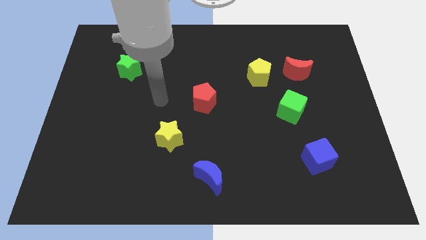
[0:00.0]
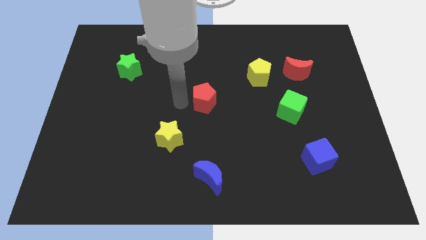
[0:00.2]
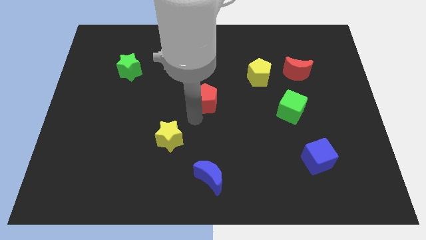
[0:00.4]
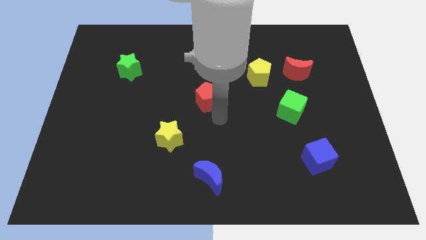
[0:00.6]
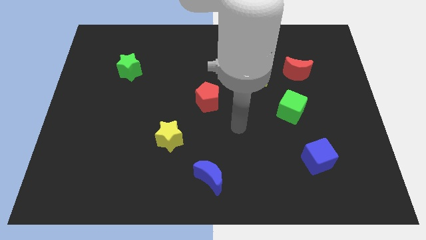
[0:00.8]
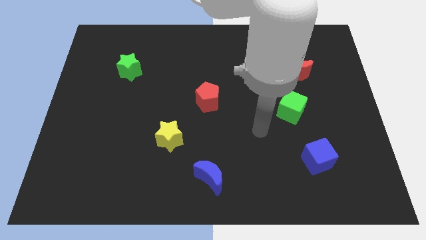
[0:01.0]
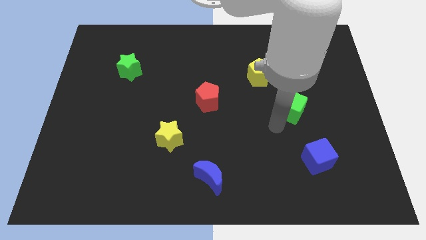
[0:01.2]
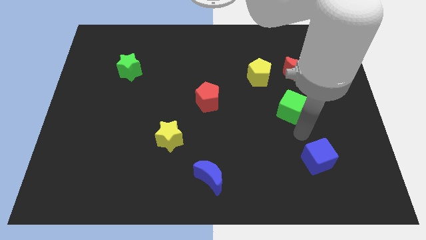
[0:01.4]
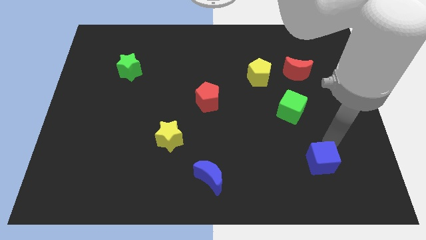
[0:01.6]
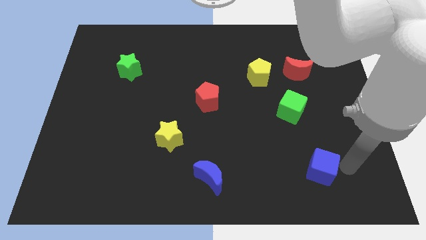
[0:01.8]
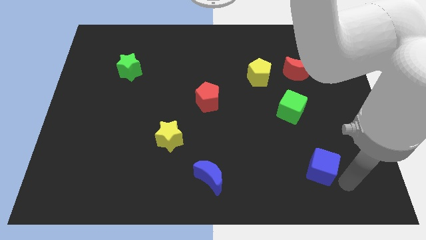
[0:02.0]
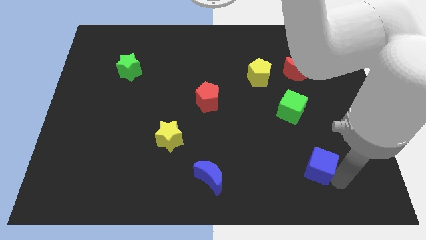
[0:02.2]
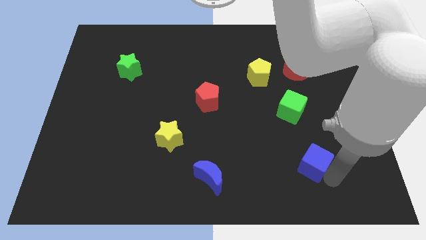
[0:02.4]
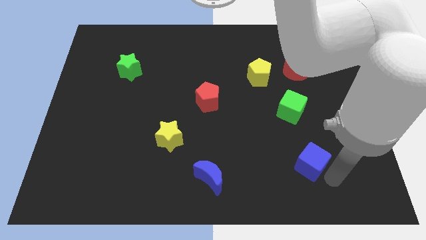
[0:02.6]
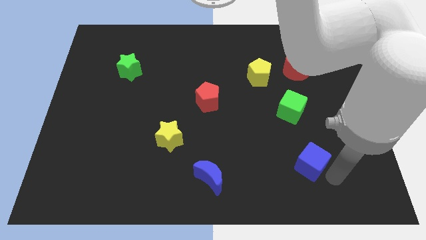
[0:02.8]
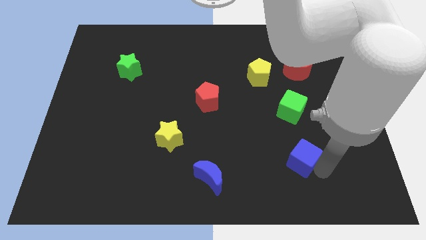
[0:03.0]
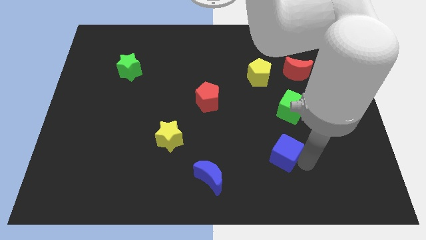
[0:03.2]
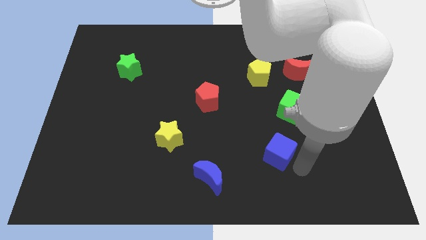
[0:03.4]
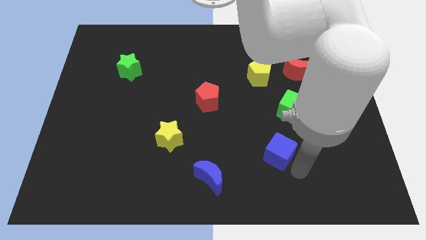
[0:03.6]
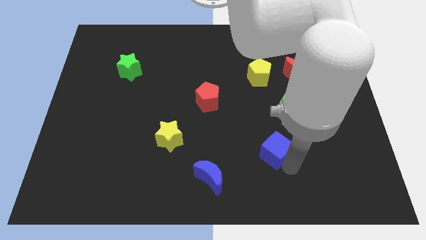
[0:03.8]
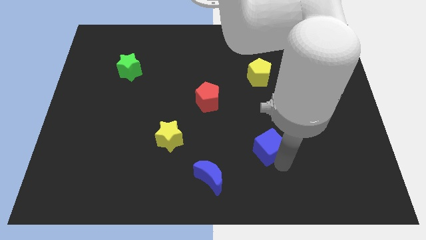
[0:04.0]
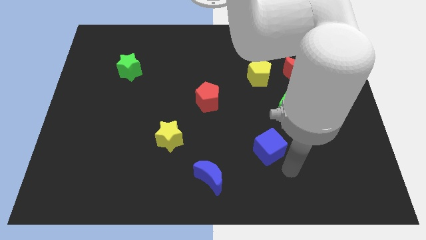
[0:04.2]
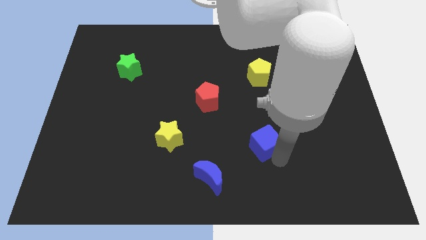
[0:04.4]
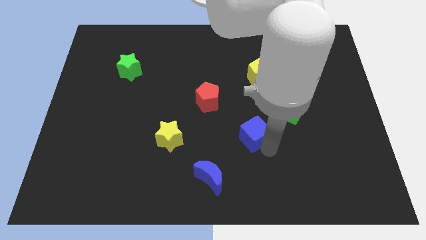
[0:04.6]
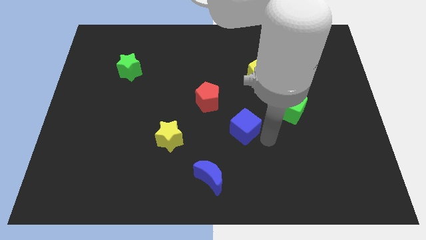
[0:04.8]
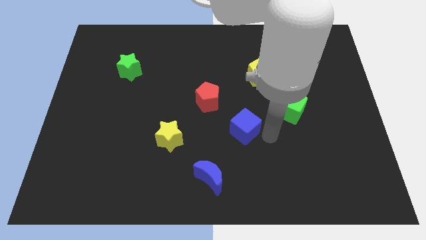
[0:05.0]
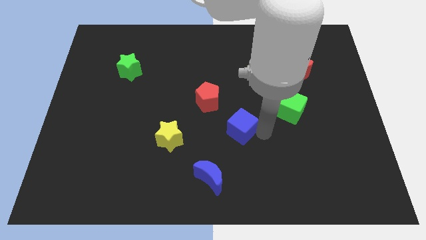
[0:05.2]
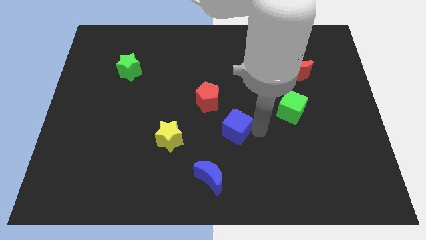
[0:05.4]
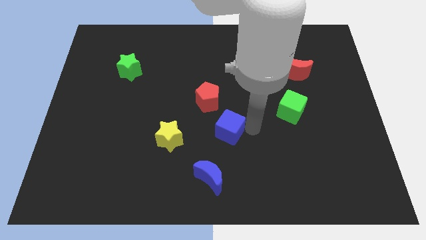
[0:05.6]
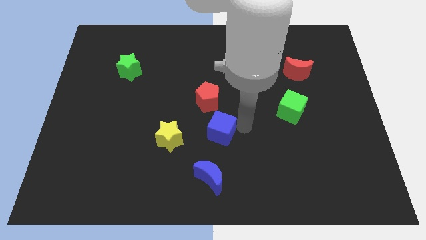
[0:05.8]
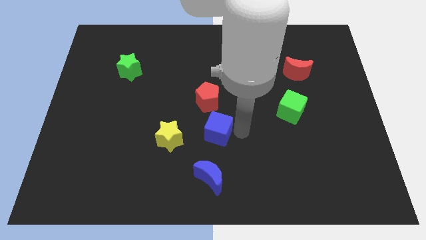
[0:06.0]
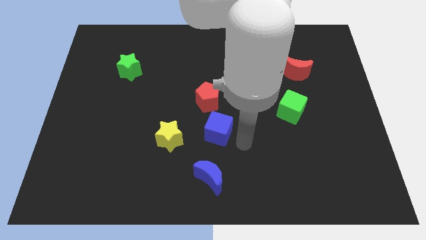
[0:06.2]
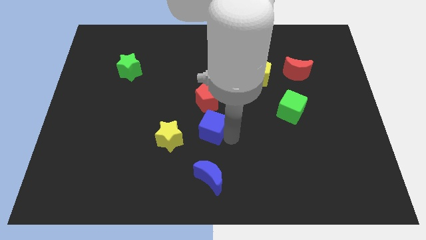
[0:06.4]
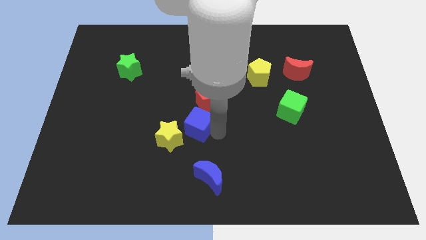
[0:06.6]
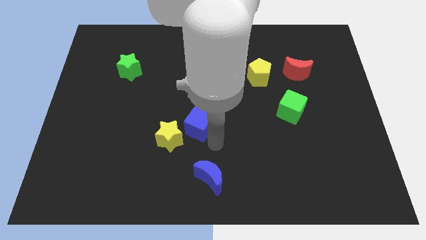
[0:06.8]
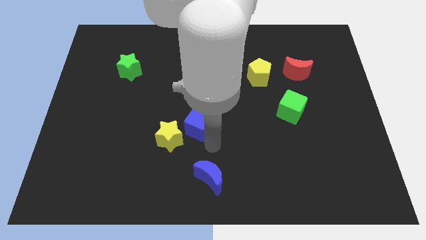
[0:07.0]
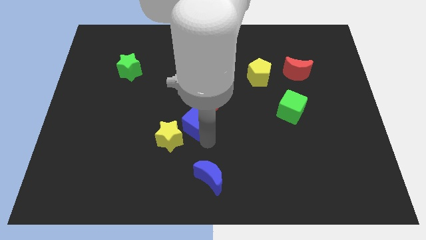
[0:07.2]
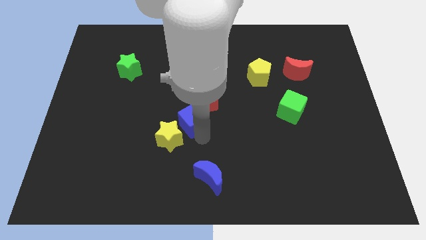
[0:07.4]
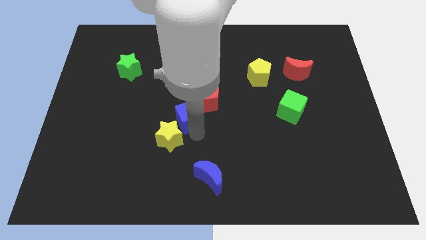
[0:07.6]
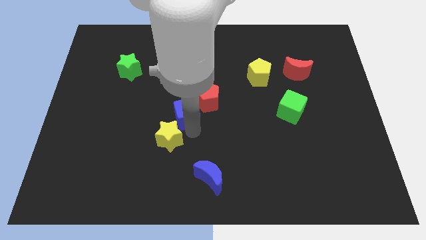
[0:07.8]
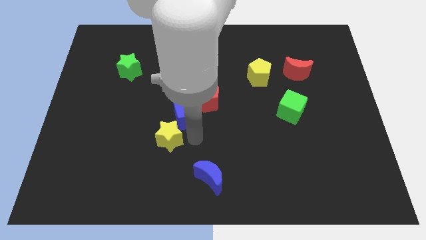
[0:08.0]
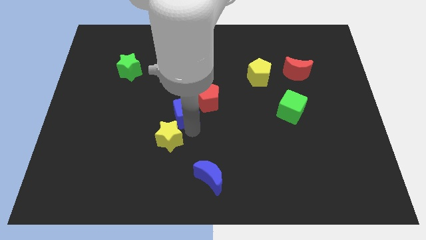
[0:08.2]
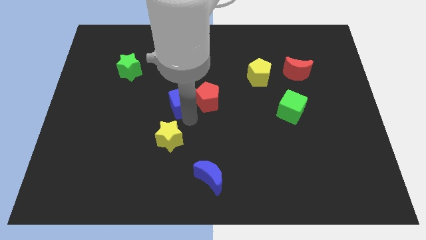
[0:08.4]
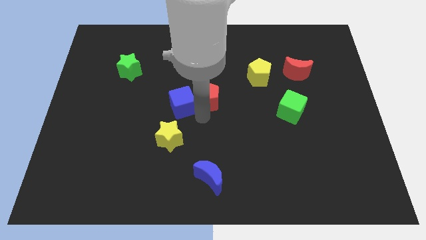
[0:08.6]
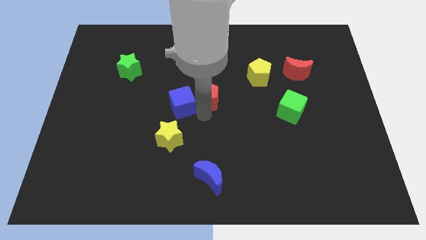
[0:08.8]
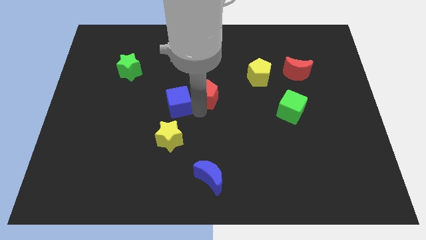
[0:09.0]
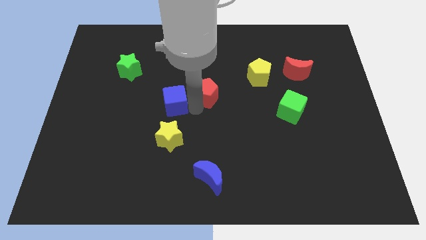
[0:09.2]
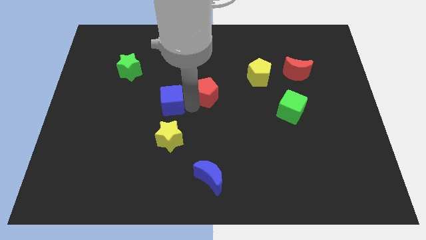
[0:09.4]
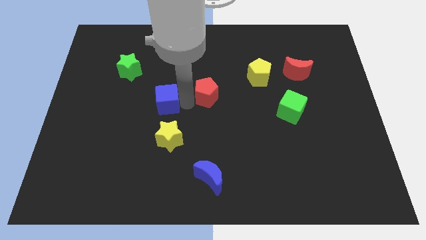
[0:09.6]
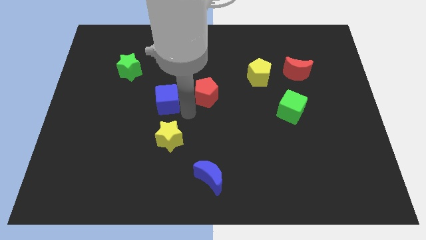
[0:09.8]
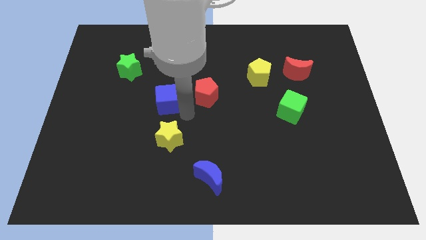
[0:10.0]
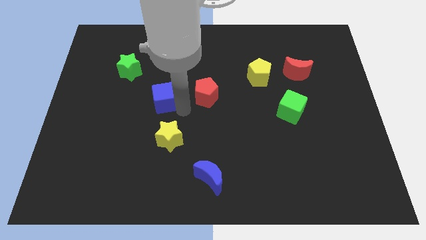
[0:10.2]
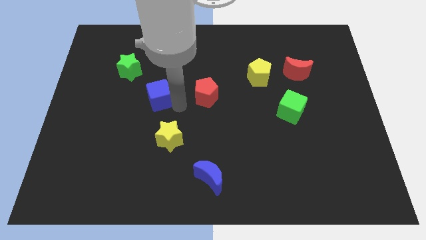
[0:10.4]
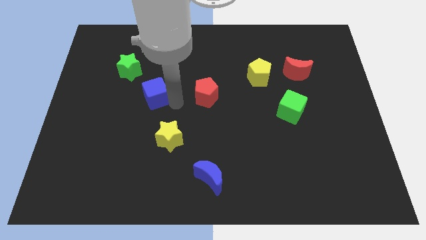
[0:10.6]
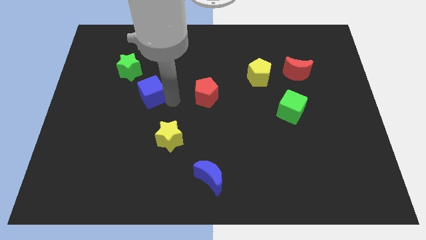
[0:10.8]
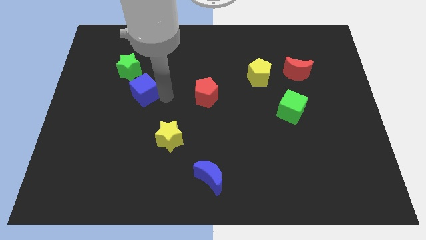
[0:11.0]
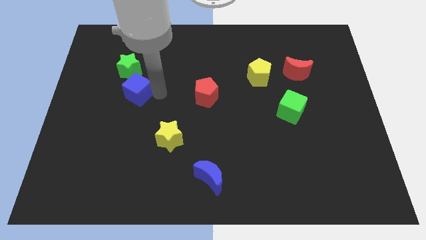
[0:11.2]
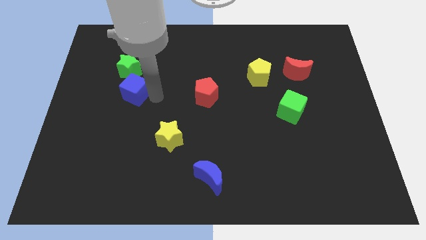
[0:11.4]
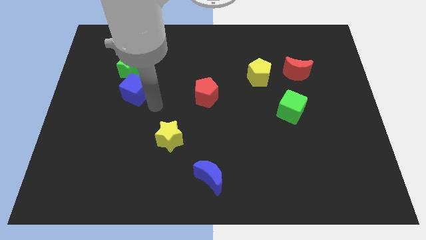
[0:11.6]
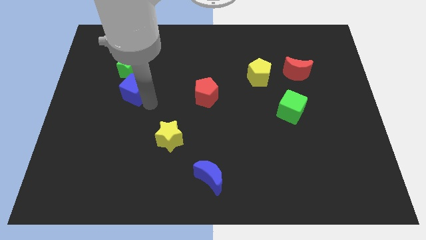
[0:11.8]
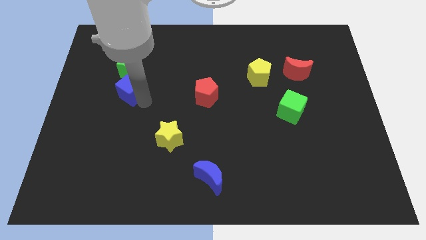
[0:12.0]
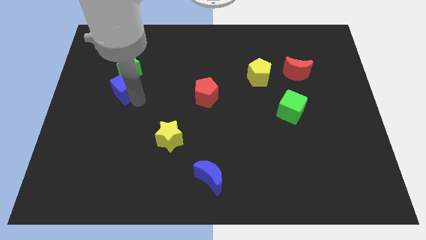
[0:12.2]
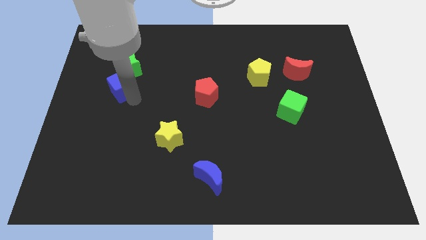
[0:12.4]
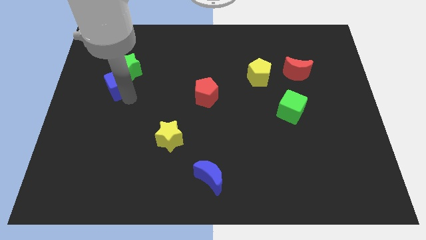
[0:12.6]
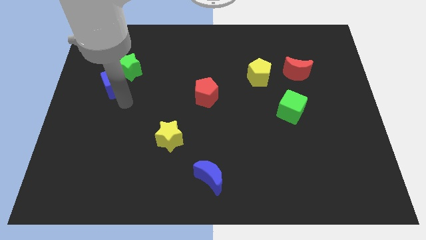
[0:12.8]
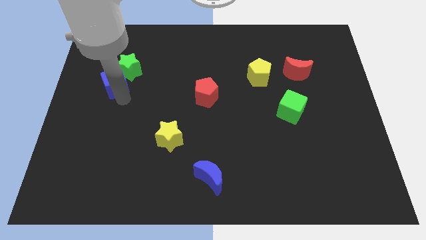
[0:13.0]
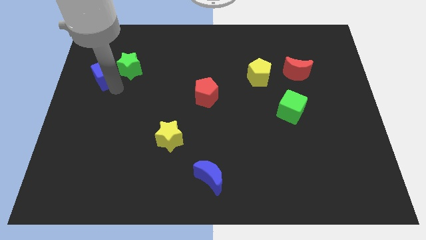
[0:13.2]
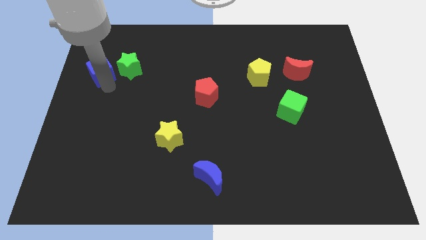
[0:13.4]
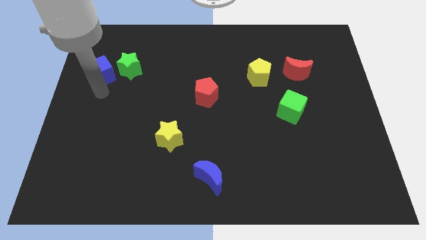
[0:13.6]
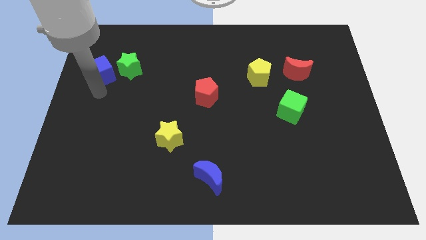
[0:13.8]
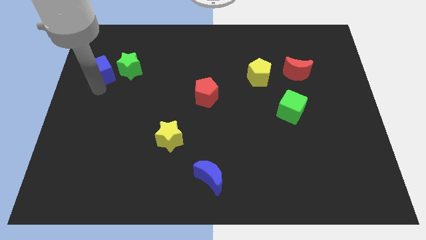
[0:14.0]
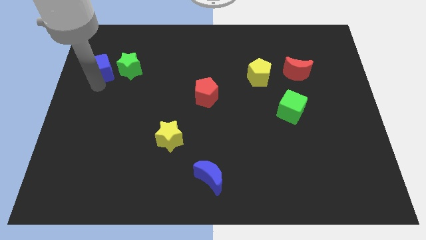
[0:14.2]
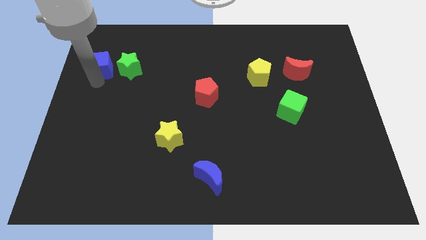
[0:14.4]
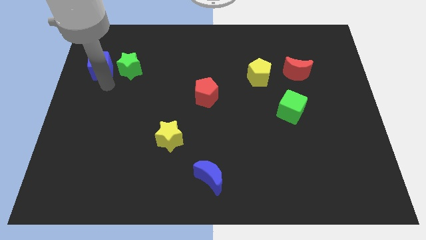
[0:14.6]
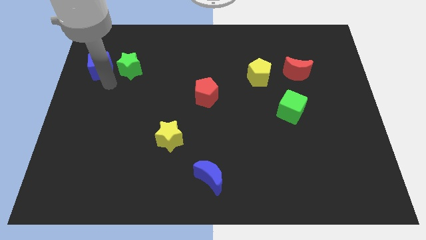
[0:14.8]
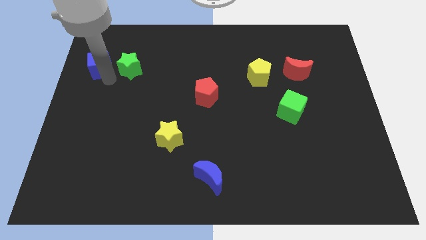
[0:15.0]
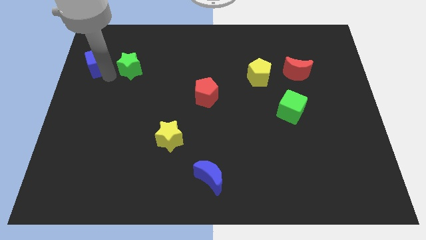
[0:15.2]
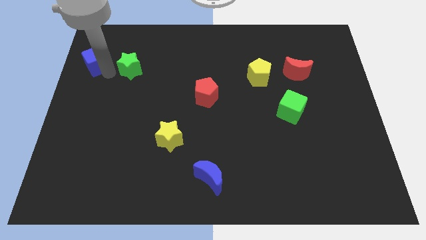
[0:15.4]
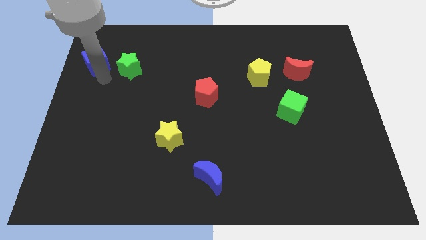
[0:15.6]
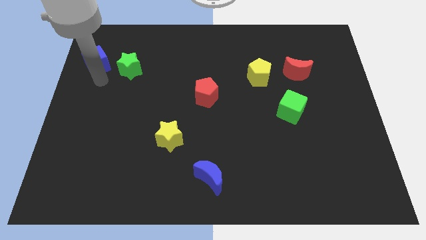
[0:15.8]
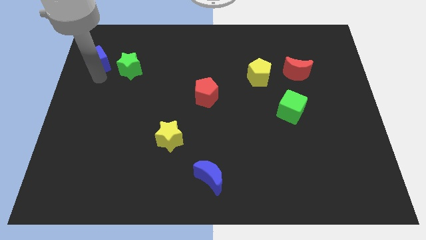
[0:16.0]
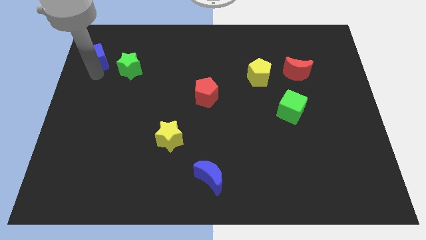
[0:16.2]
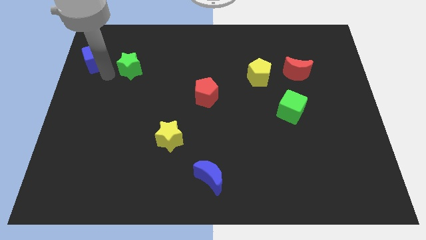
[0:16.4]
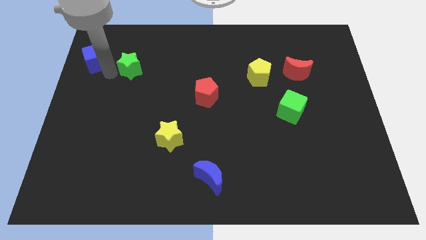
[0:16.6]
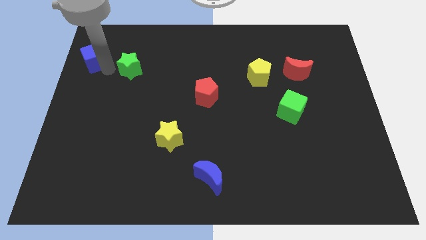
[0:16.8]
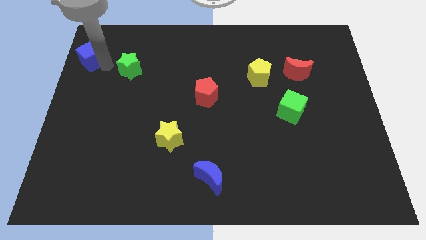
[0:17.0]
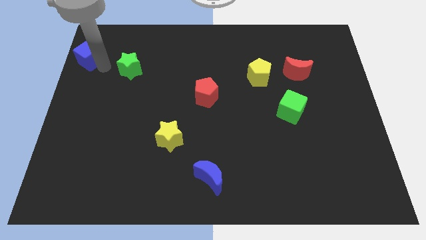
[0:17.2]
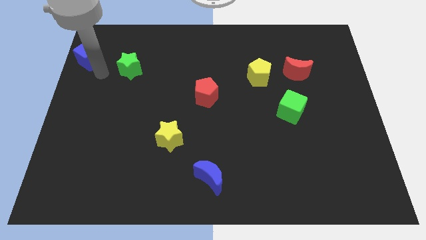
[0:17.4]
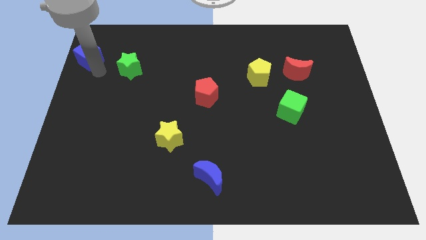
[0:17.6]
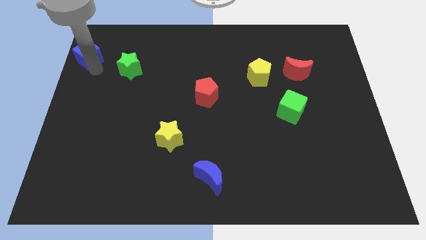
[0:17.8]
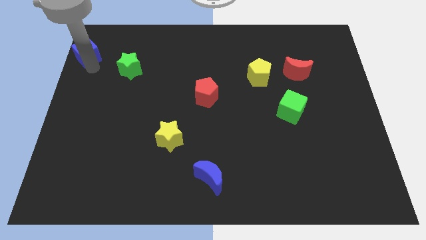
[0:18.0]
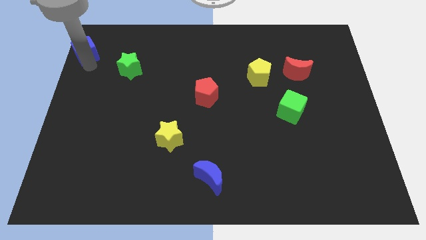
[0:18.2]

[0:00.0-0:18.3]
slide the blue cube to the top left of the board
